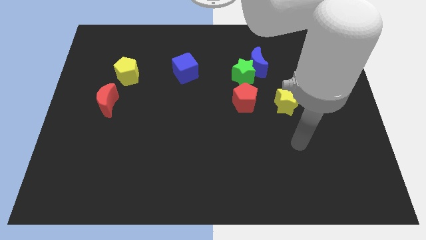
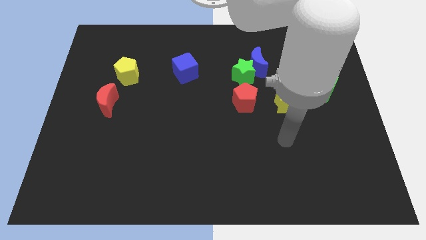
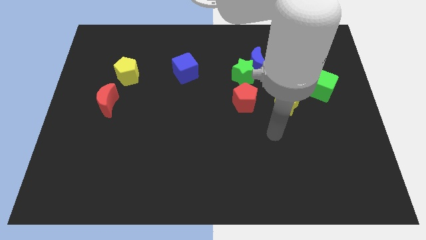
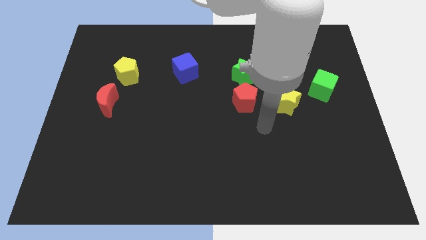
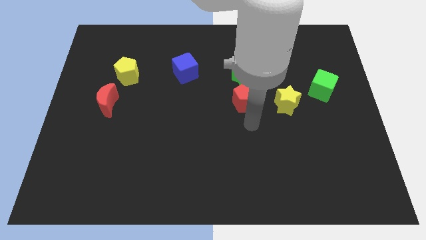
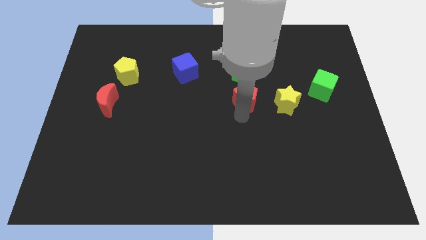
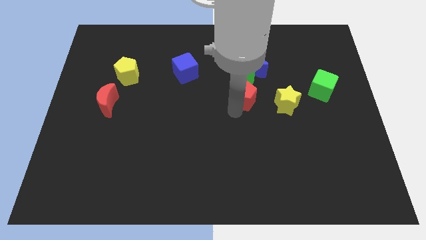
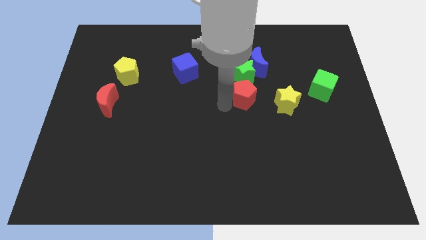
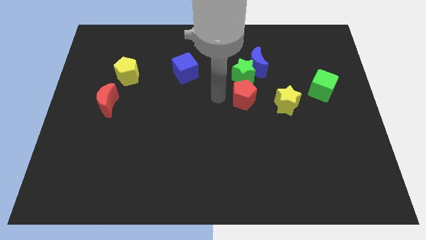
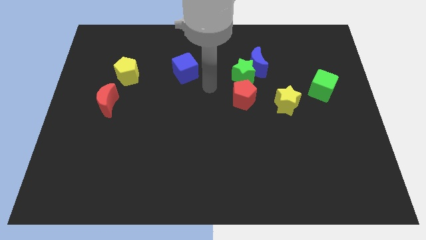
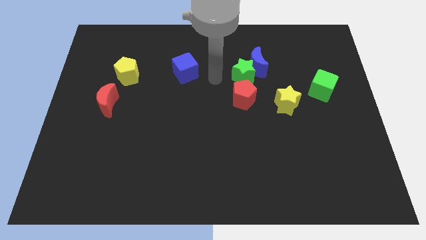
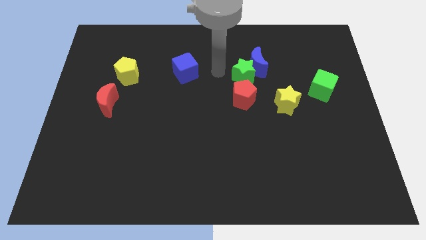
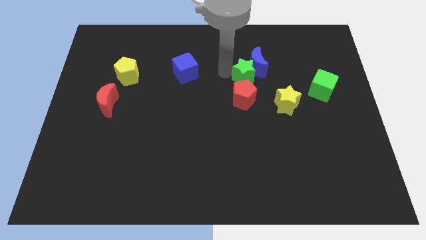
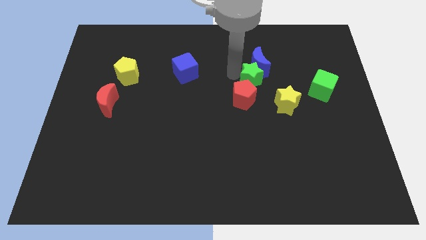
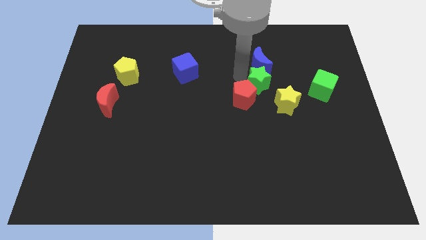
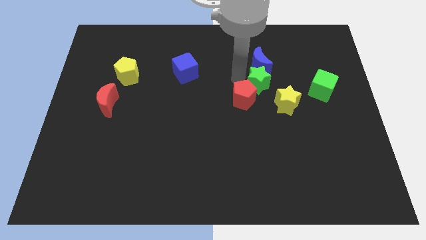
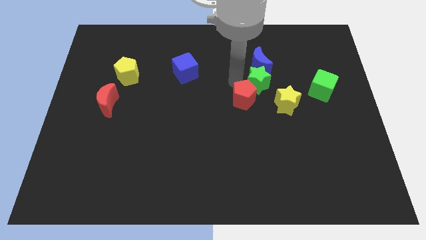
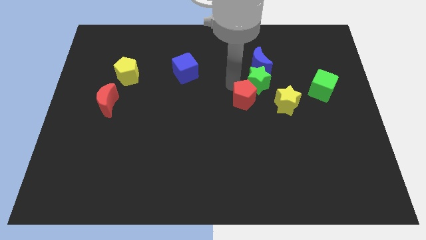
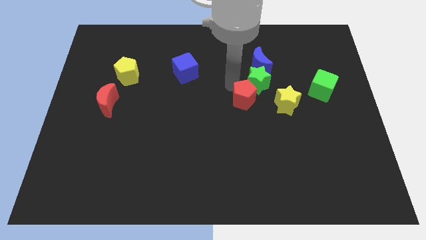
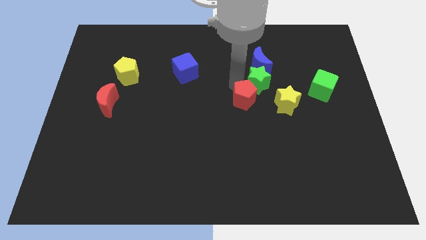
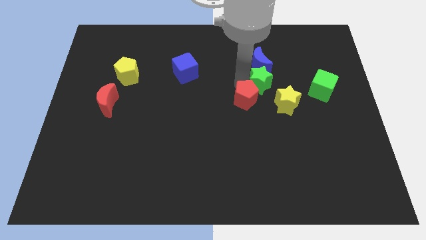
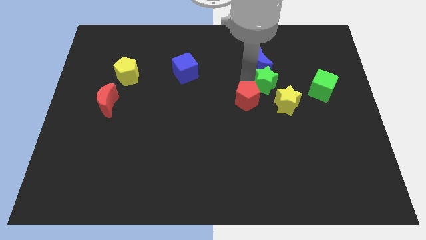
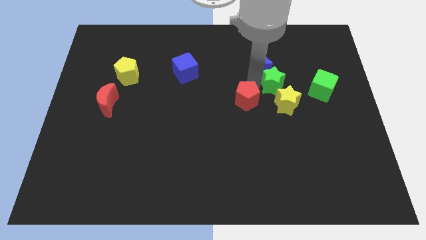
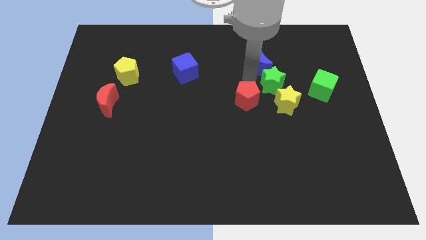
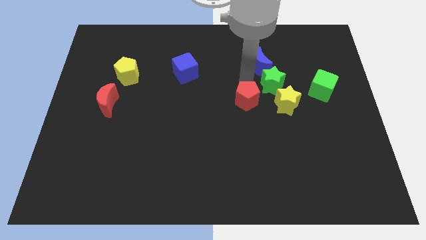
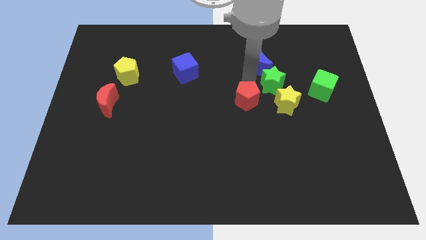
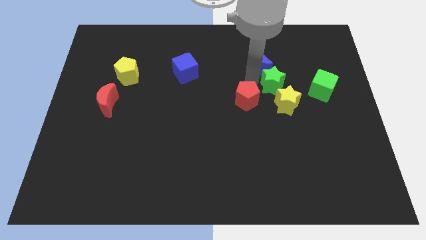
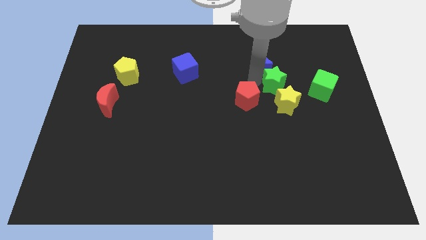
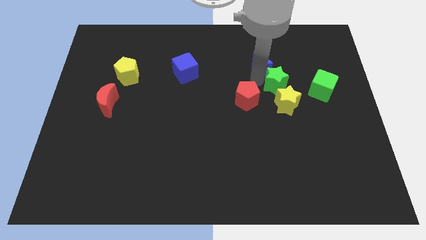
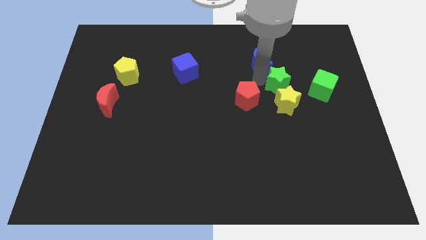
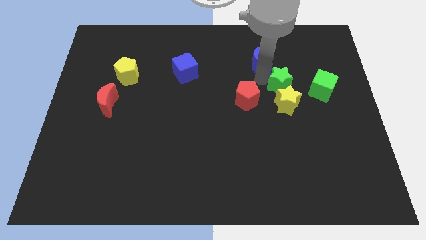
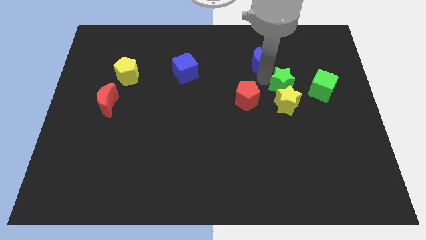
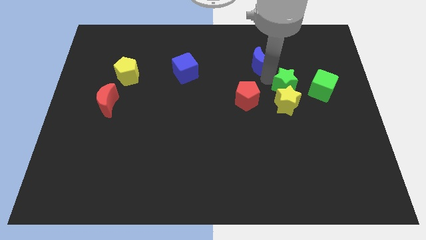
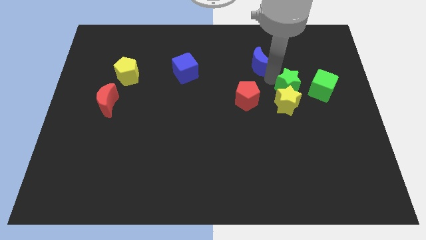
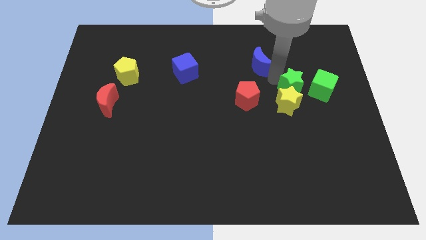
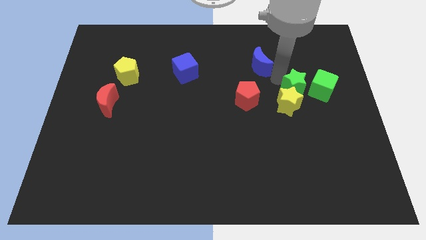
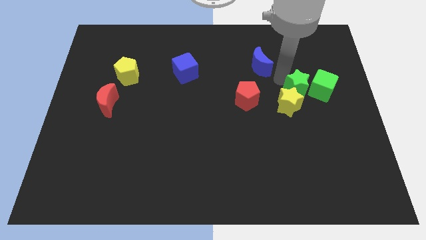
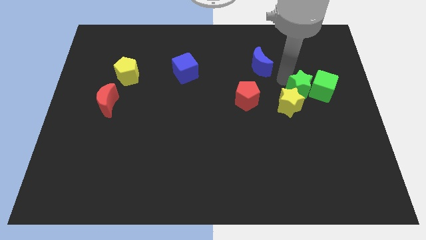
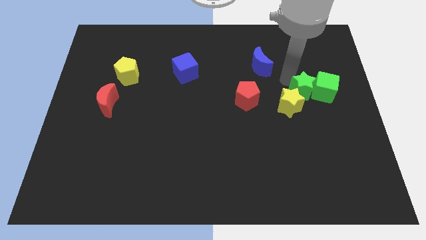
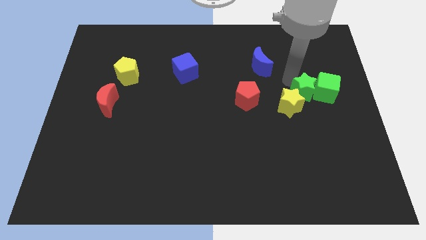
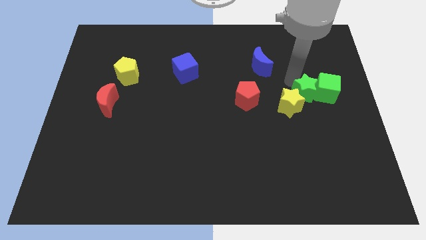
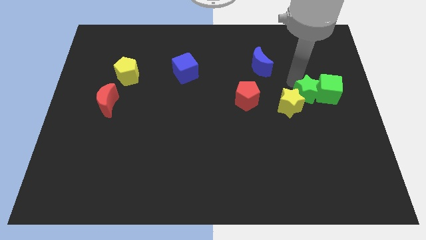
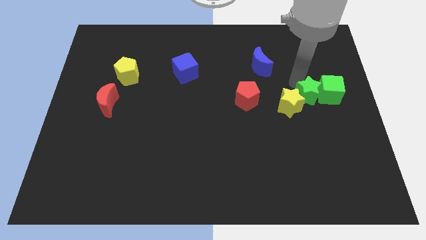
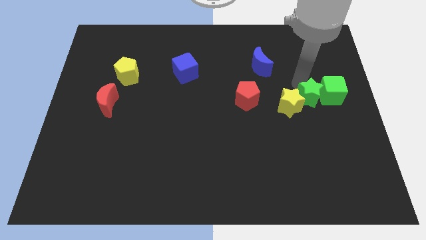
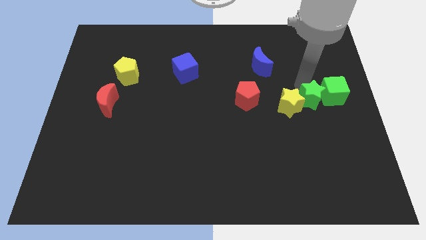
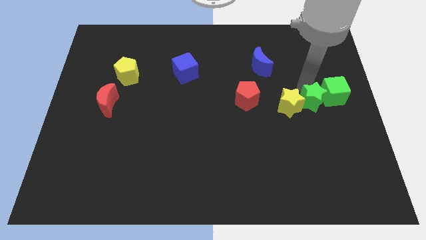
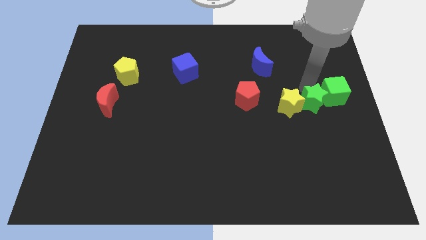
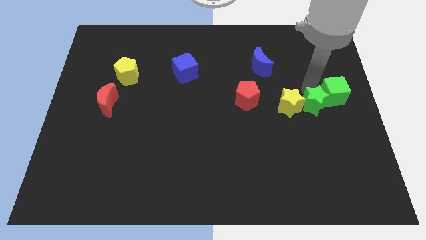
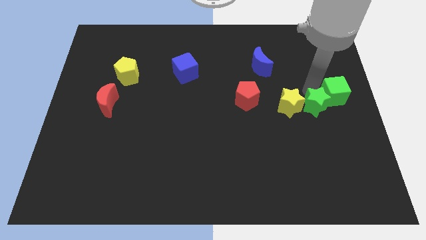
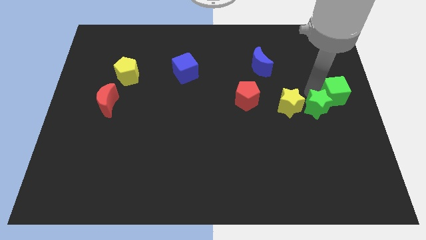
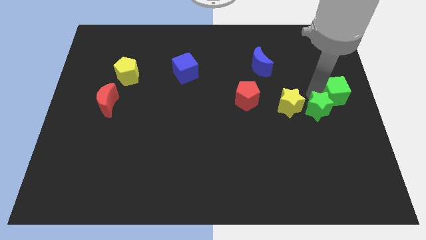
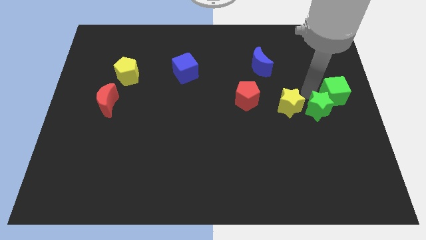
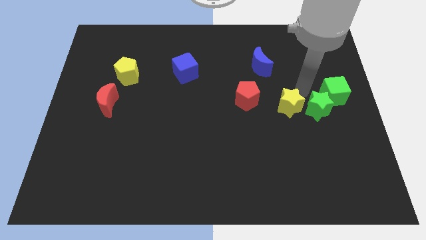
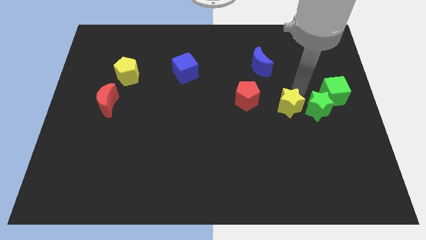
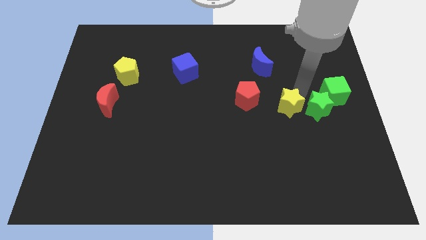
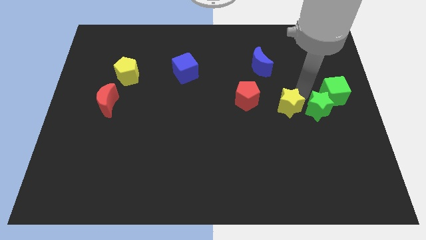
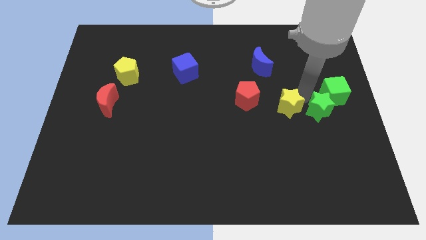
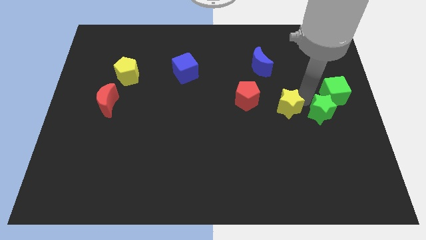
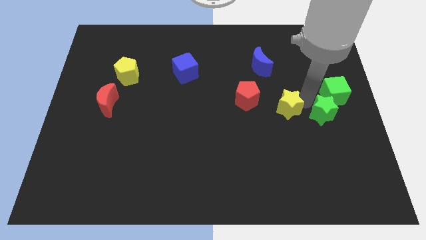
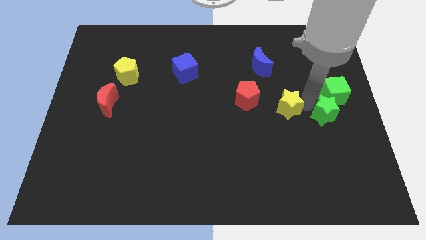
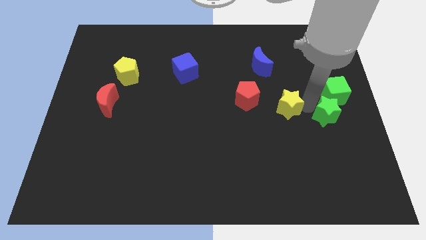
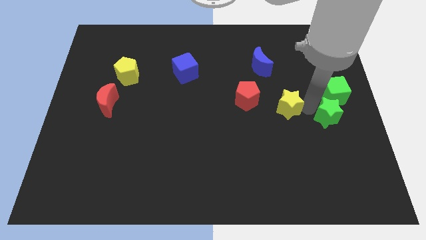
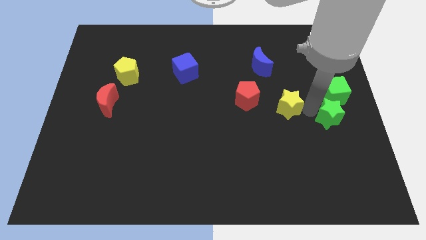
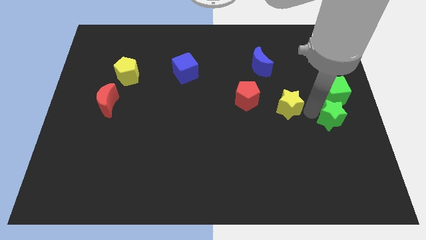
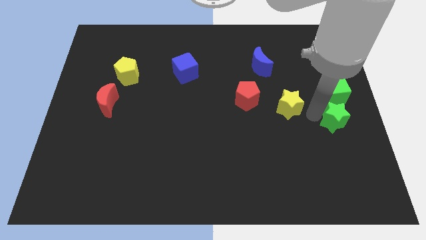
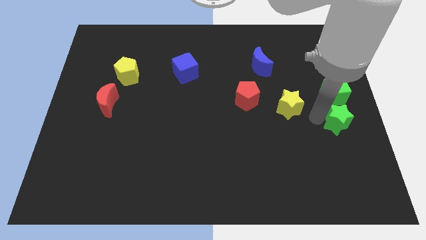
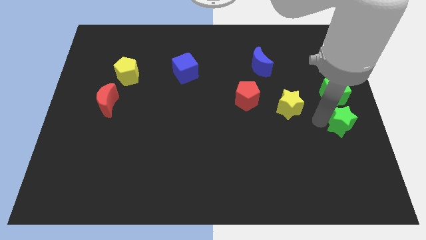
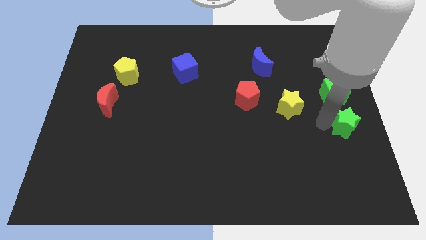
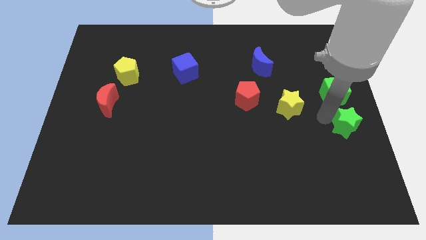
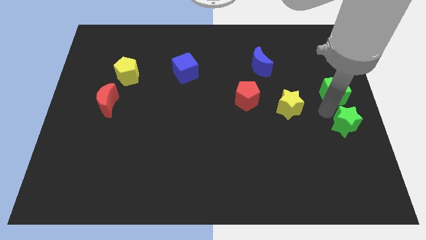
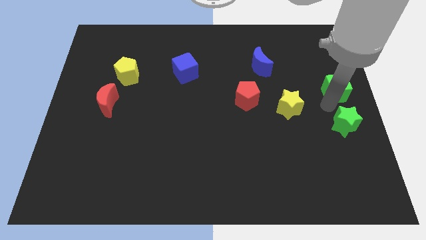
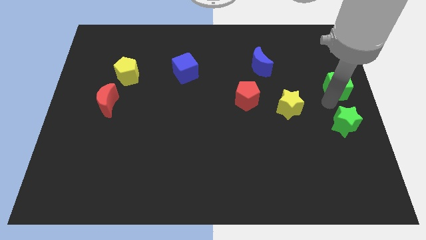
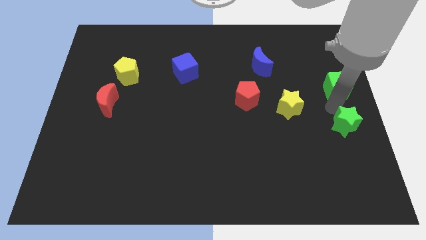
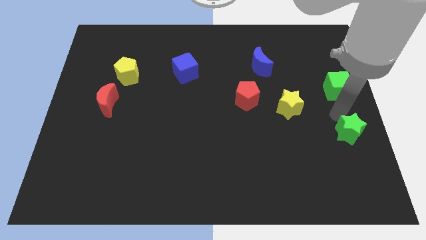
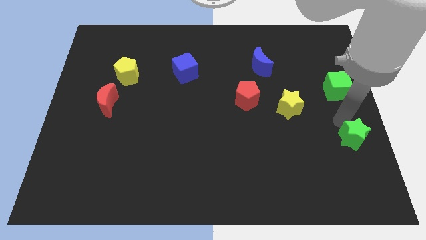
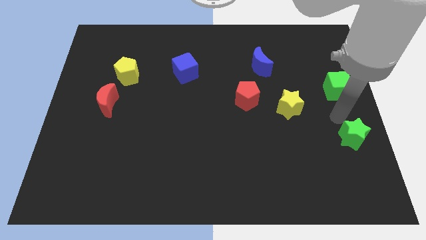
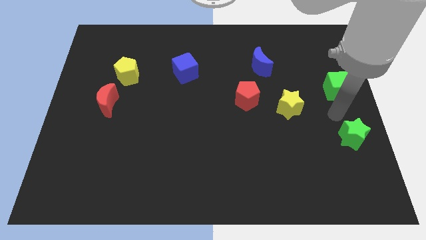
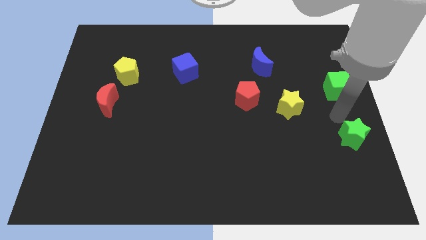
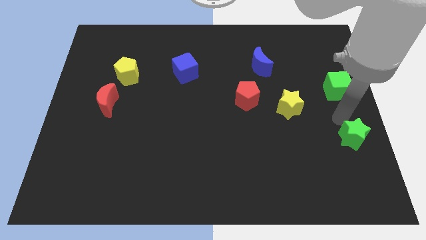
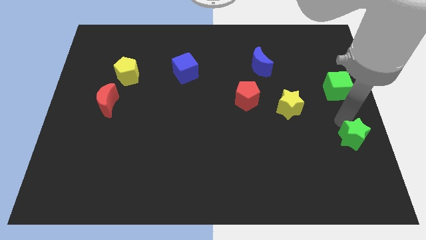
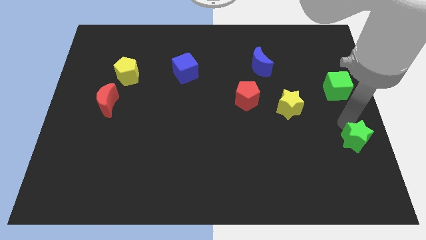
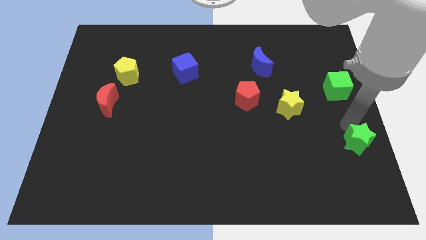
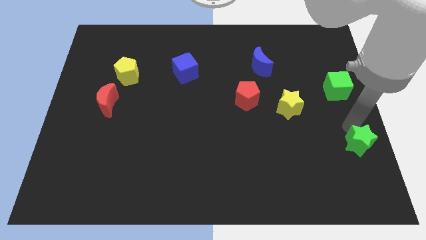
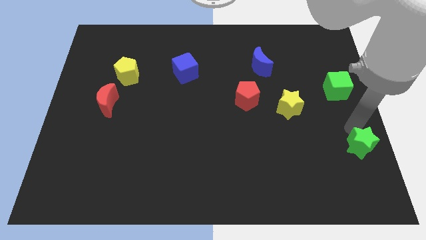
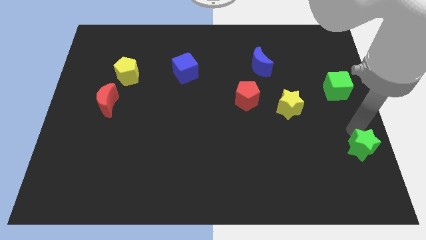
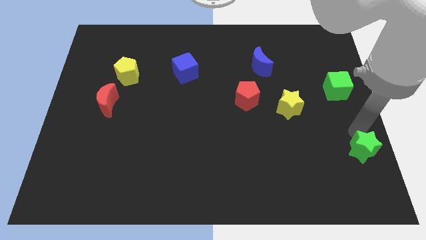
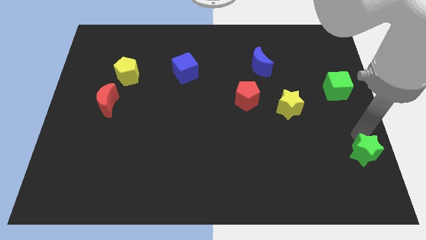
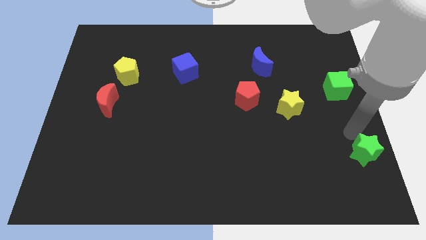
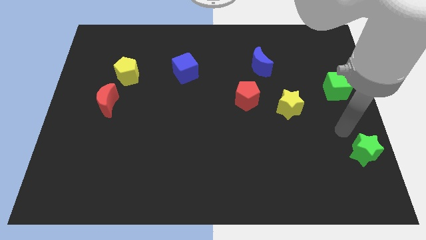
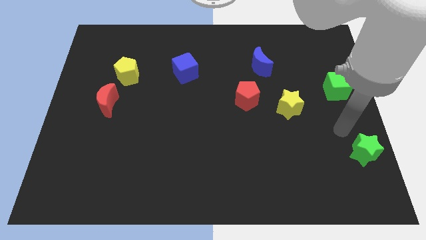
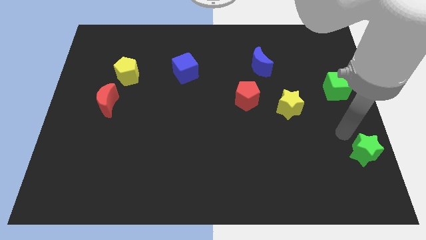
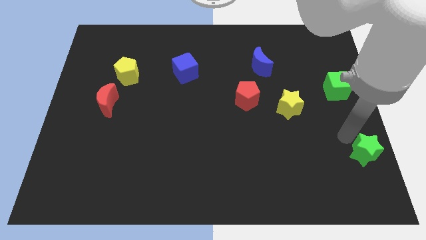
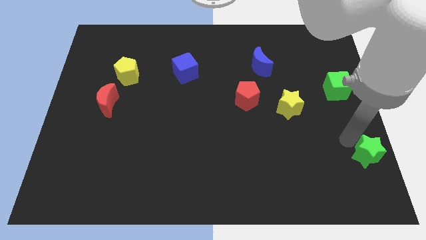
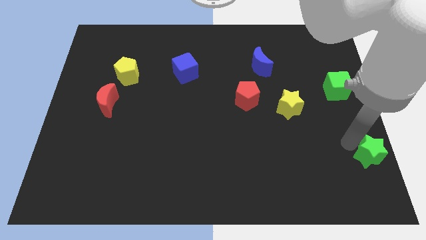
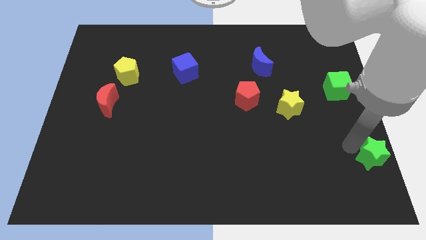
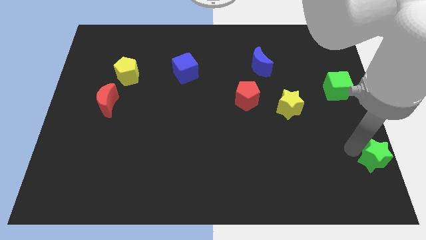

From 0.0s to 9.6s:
push the green star to the bottom right corner
